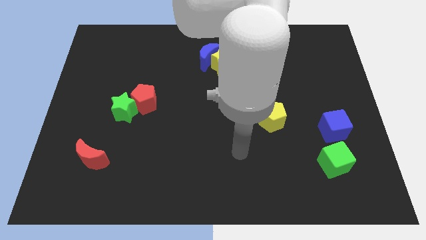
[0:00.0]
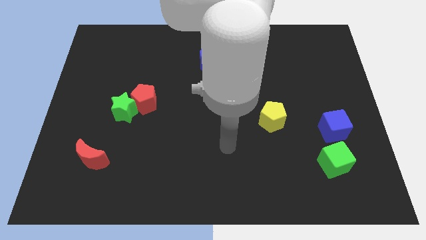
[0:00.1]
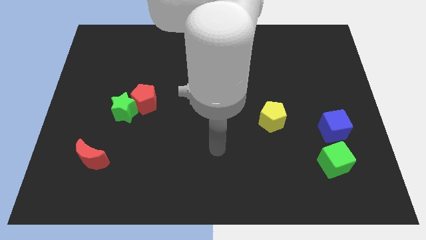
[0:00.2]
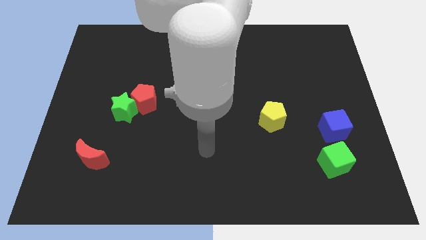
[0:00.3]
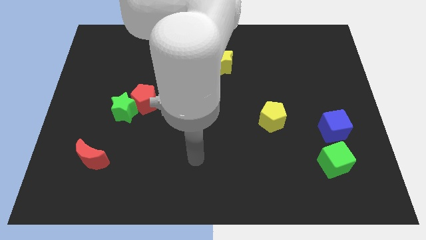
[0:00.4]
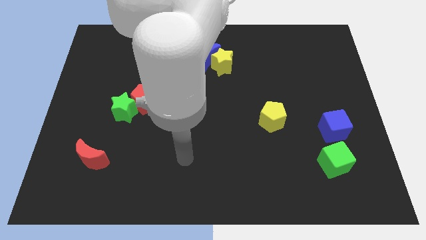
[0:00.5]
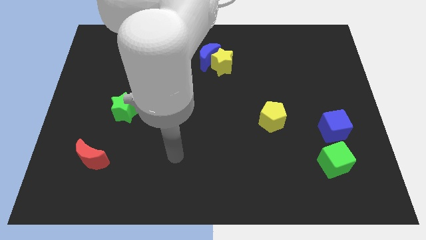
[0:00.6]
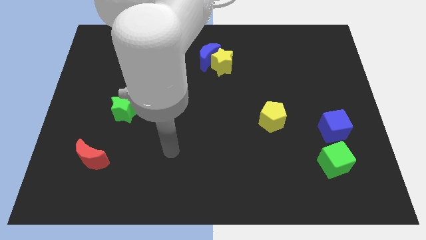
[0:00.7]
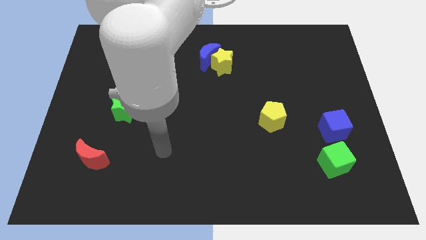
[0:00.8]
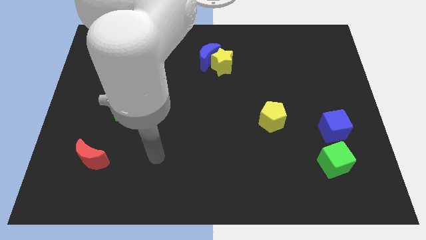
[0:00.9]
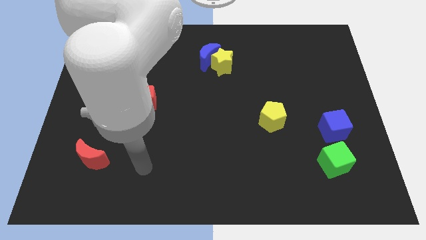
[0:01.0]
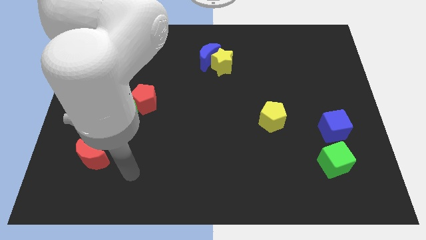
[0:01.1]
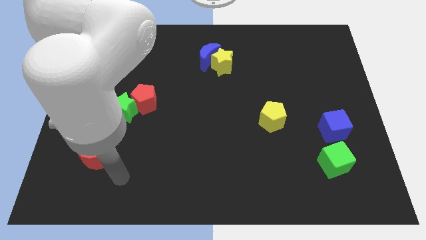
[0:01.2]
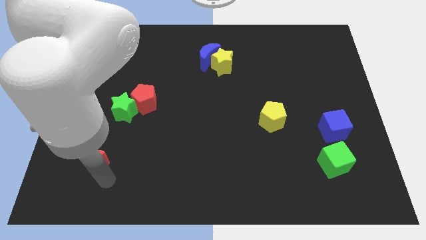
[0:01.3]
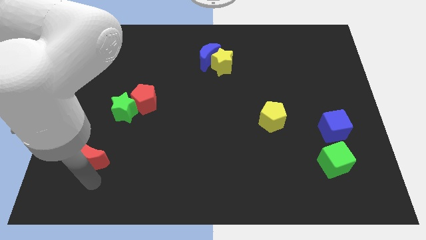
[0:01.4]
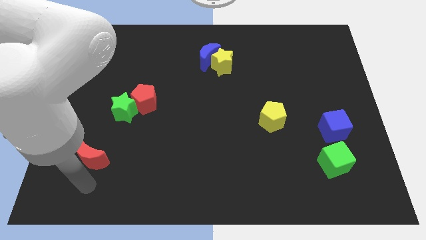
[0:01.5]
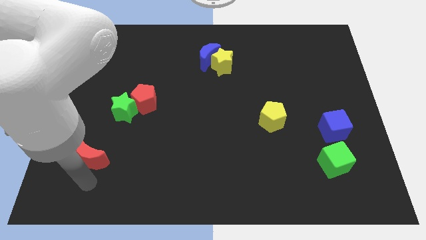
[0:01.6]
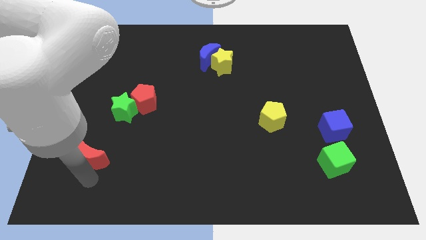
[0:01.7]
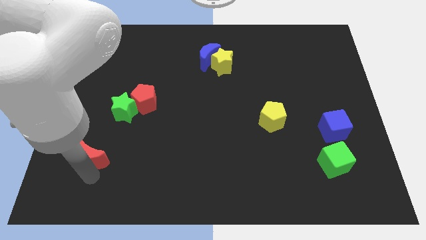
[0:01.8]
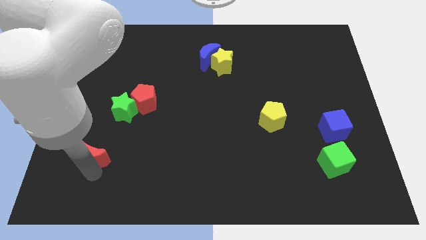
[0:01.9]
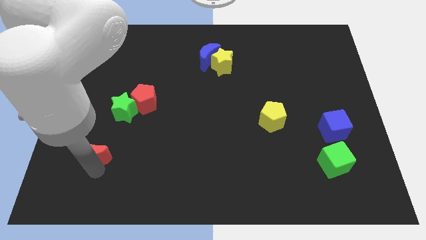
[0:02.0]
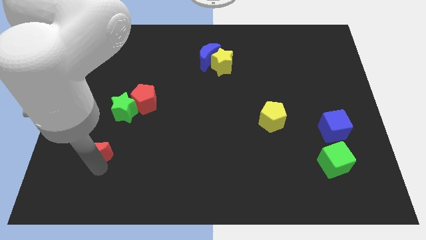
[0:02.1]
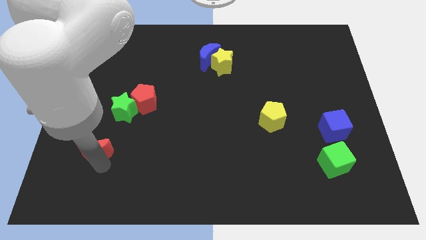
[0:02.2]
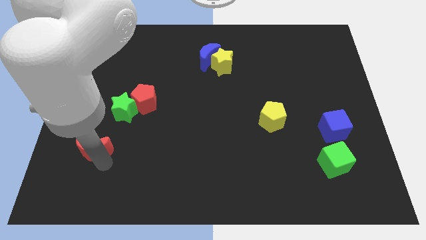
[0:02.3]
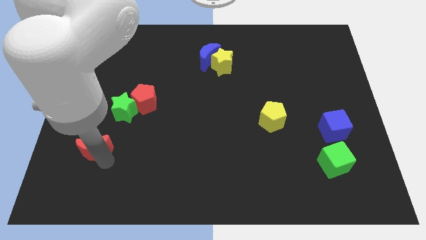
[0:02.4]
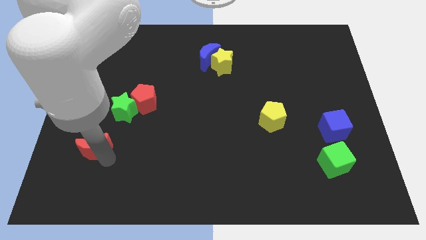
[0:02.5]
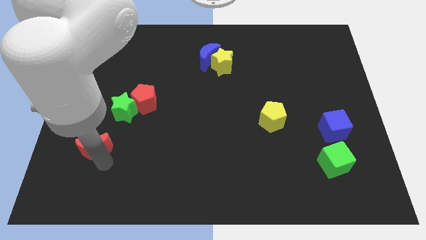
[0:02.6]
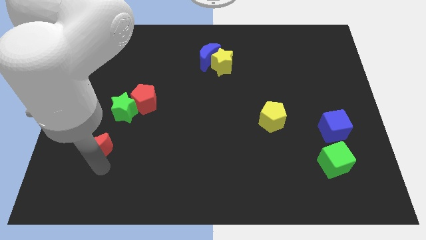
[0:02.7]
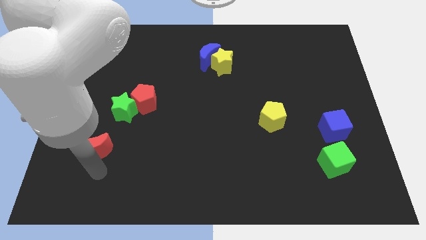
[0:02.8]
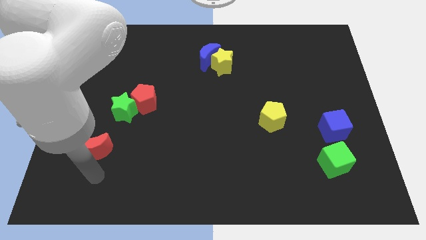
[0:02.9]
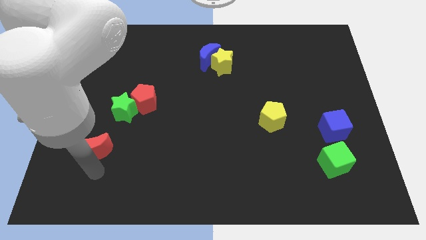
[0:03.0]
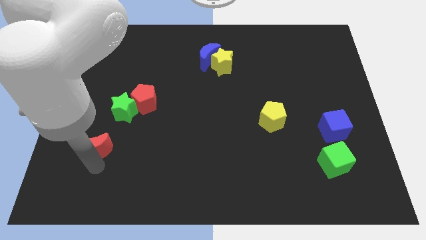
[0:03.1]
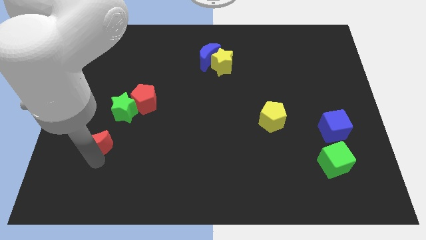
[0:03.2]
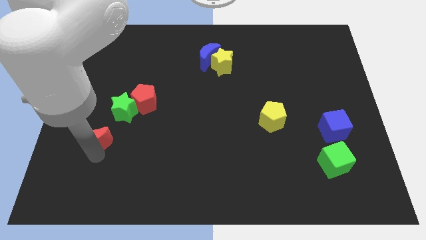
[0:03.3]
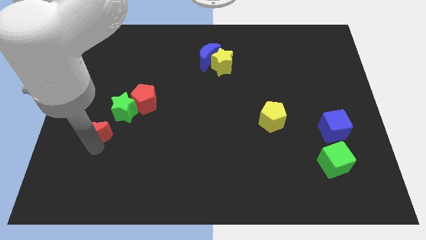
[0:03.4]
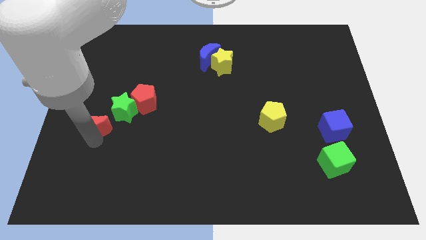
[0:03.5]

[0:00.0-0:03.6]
move the red moon a bit up

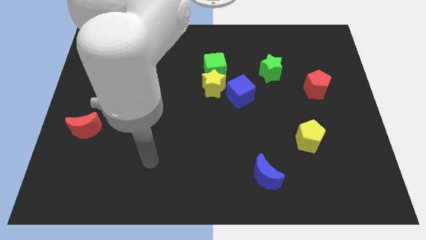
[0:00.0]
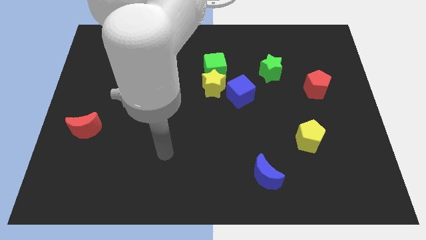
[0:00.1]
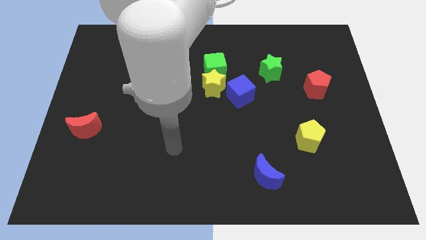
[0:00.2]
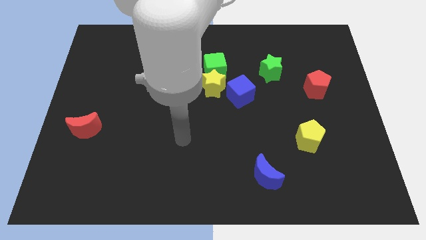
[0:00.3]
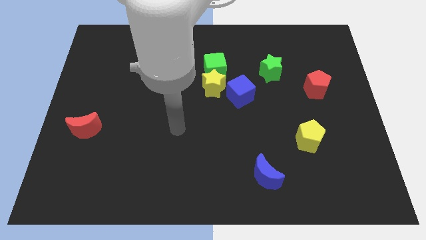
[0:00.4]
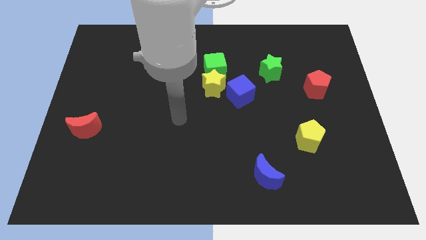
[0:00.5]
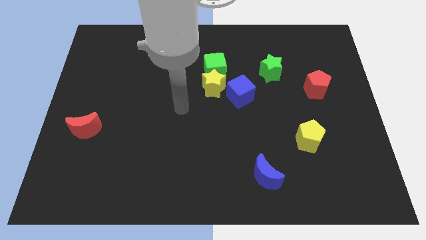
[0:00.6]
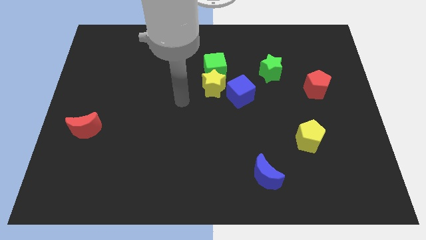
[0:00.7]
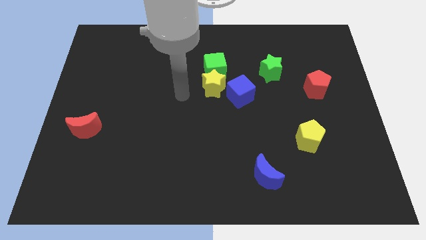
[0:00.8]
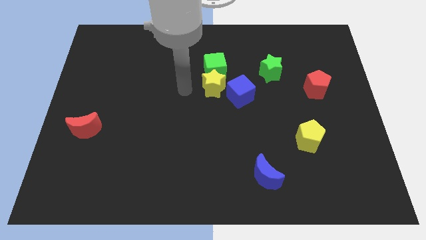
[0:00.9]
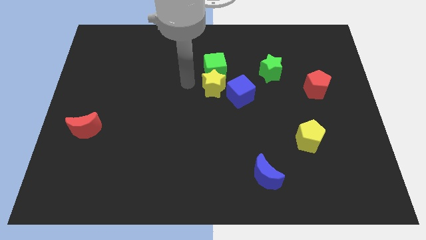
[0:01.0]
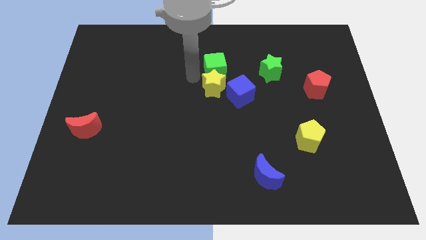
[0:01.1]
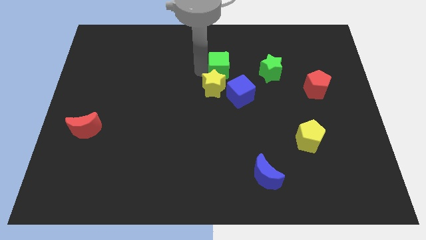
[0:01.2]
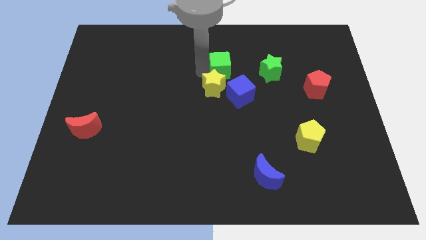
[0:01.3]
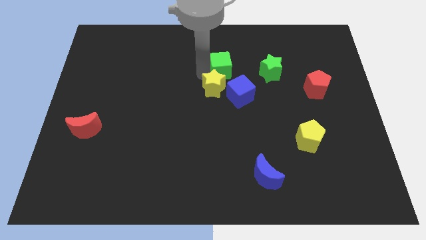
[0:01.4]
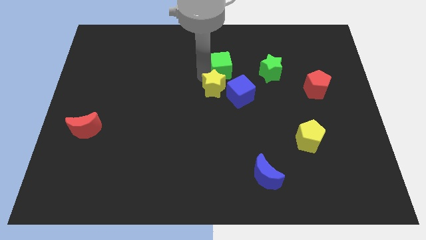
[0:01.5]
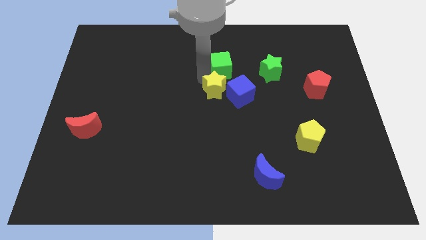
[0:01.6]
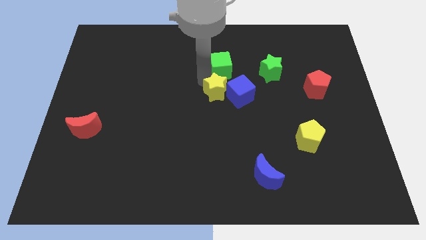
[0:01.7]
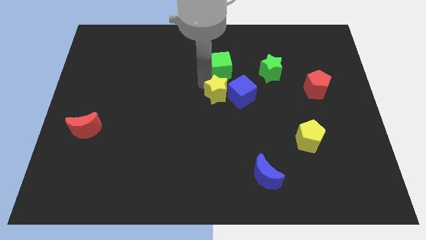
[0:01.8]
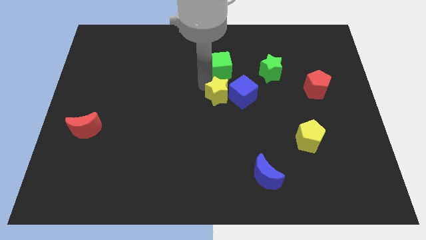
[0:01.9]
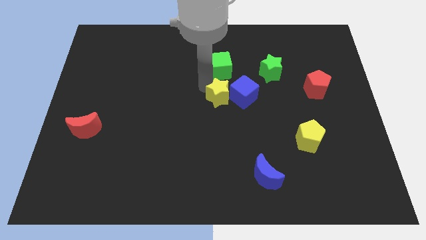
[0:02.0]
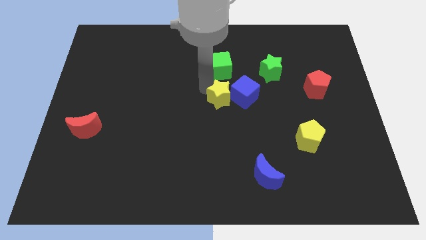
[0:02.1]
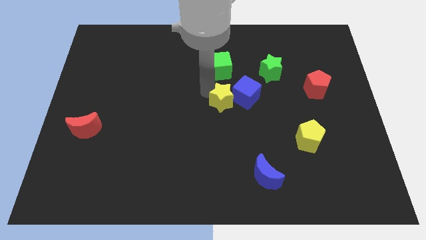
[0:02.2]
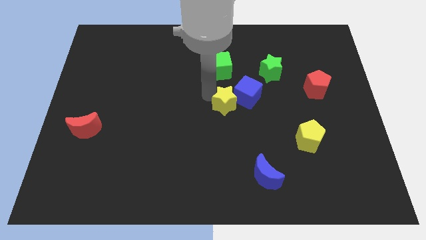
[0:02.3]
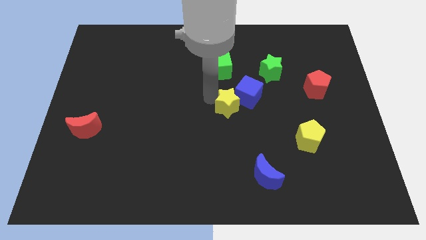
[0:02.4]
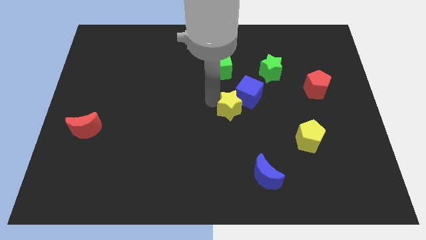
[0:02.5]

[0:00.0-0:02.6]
slightly slide the yellow star downwards and to the right diagonally

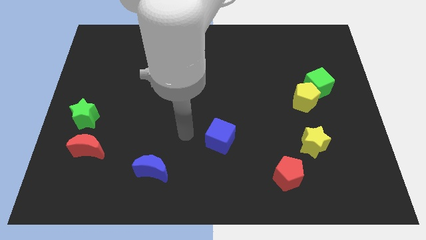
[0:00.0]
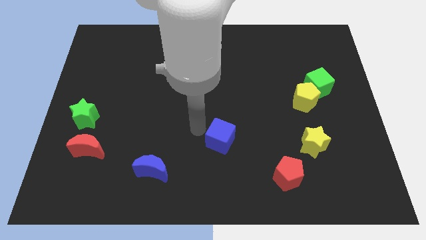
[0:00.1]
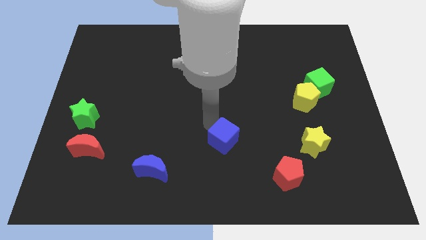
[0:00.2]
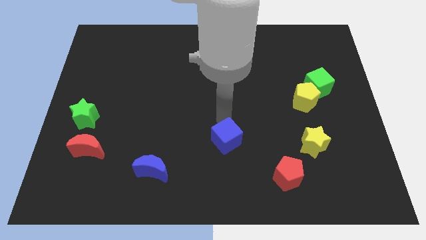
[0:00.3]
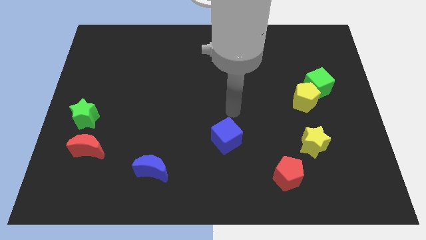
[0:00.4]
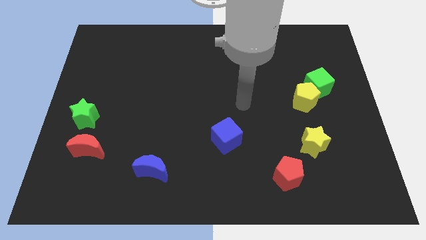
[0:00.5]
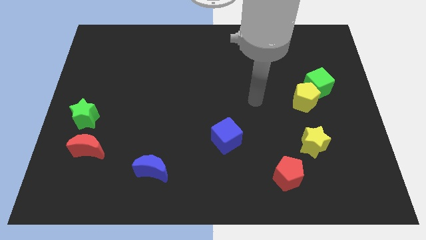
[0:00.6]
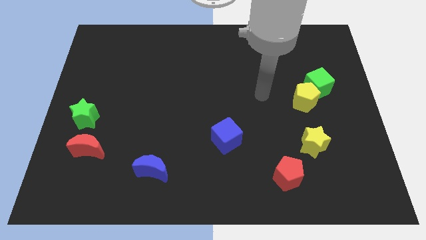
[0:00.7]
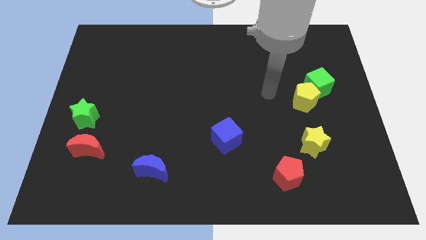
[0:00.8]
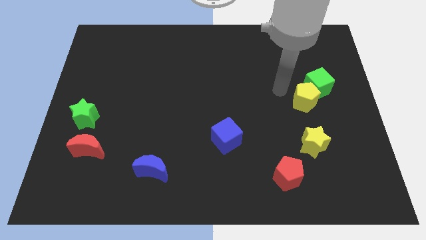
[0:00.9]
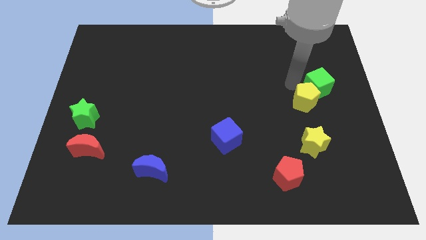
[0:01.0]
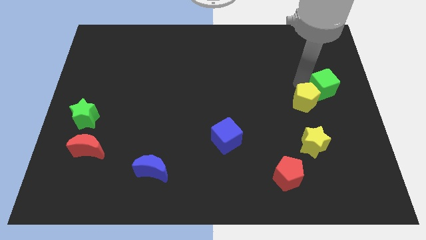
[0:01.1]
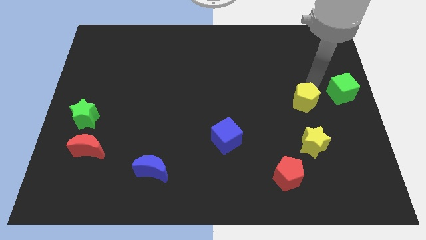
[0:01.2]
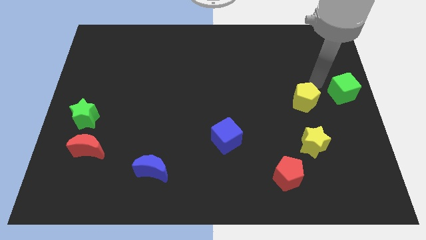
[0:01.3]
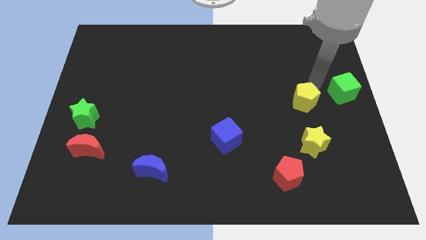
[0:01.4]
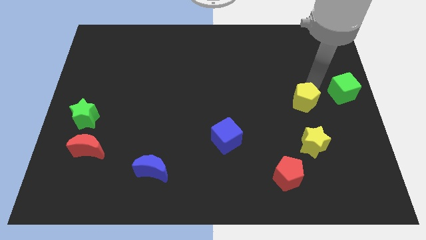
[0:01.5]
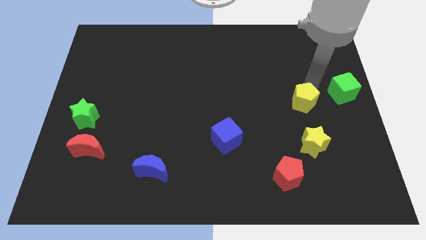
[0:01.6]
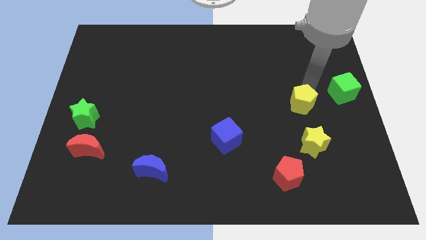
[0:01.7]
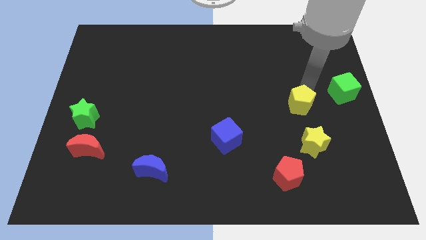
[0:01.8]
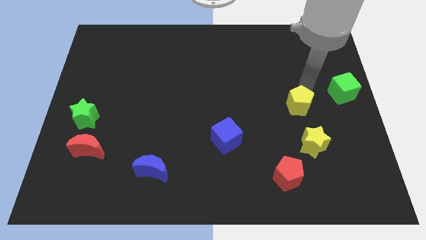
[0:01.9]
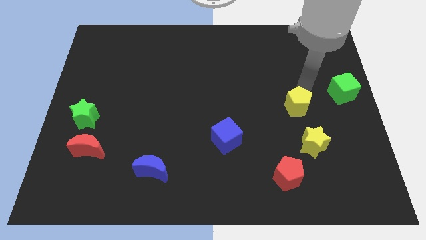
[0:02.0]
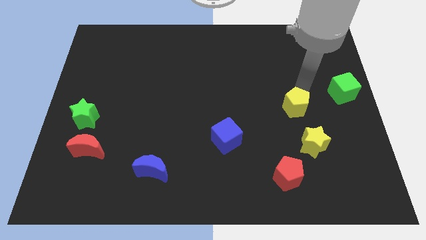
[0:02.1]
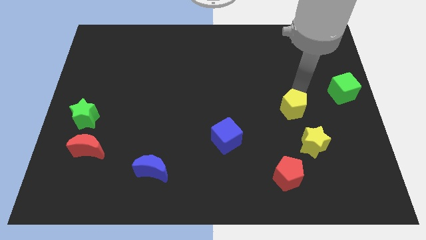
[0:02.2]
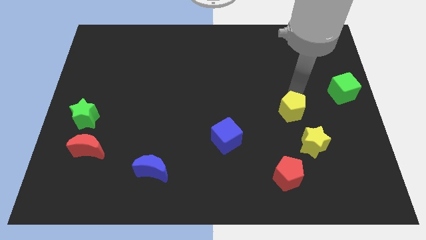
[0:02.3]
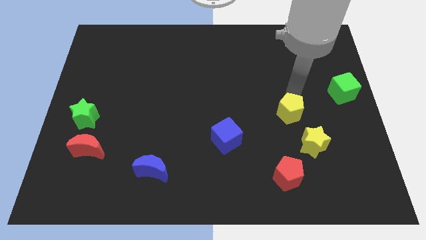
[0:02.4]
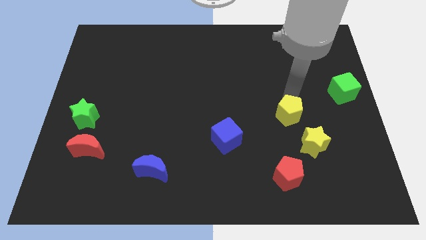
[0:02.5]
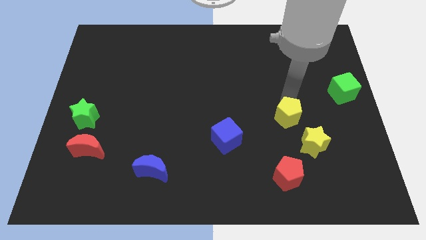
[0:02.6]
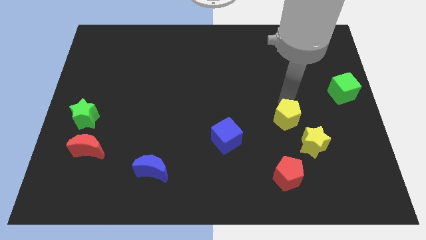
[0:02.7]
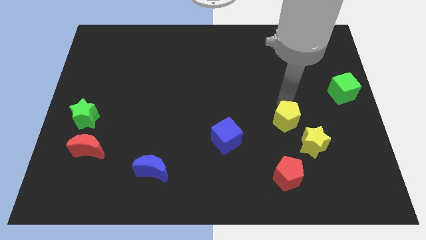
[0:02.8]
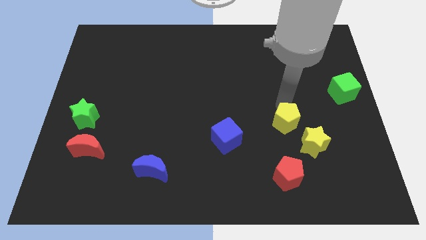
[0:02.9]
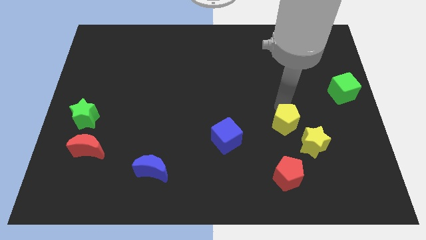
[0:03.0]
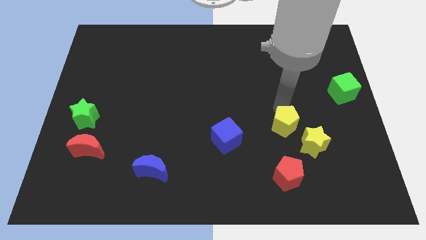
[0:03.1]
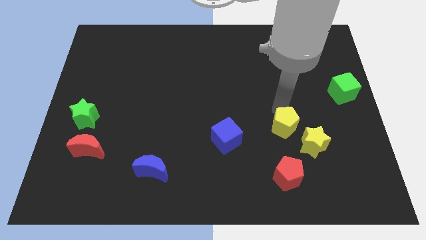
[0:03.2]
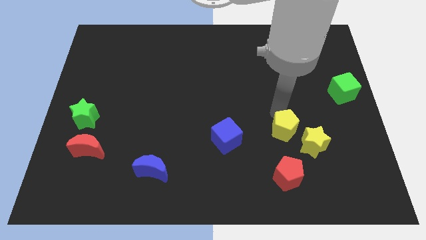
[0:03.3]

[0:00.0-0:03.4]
push the yellow pentagon somewhat down
